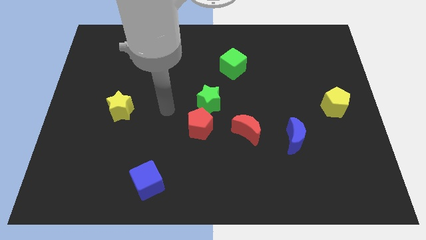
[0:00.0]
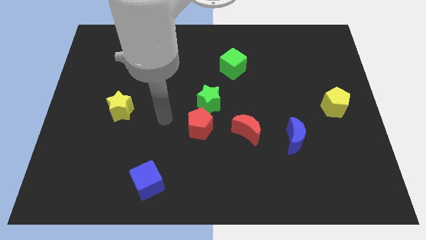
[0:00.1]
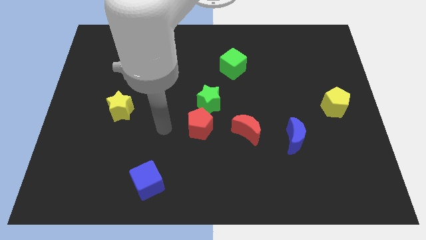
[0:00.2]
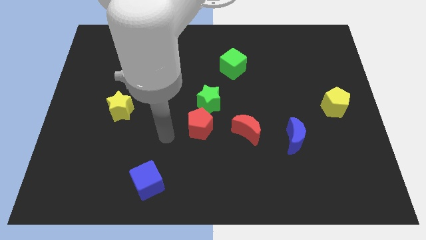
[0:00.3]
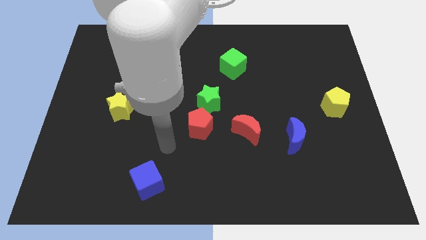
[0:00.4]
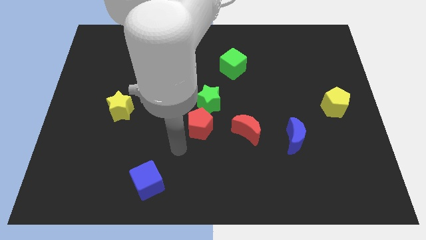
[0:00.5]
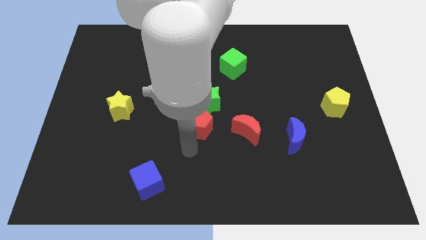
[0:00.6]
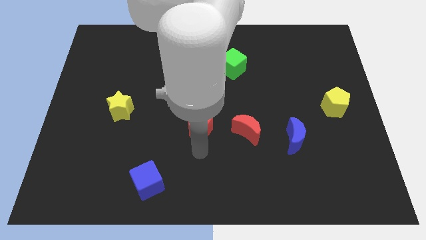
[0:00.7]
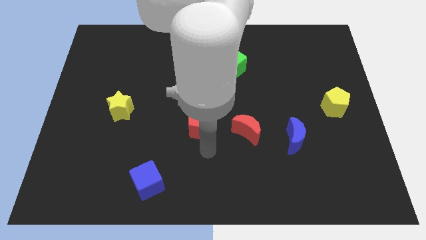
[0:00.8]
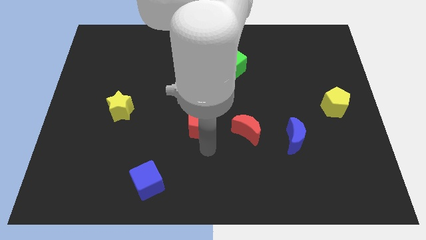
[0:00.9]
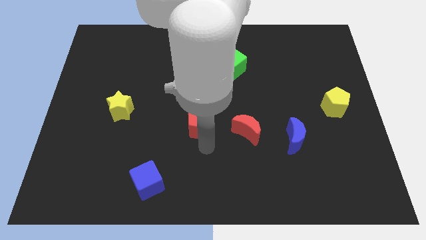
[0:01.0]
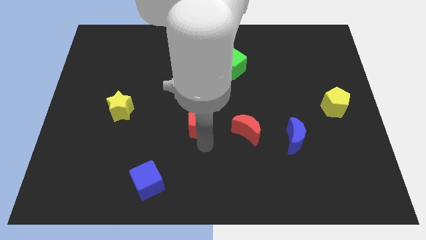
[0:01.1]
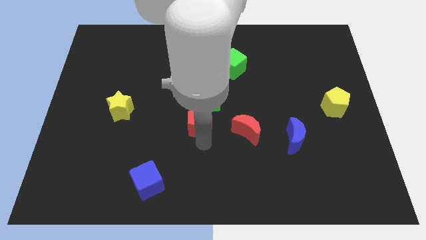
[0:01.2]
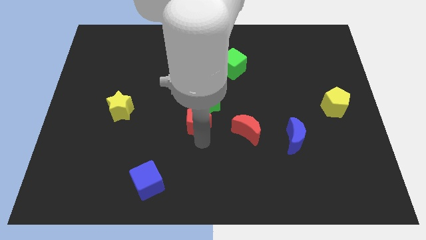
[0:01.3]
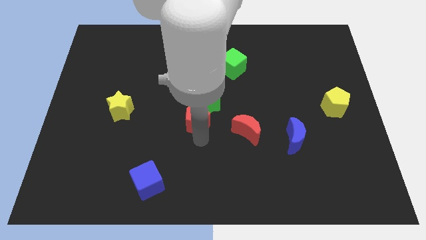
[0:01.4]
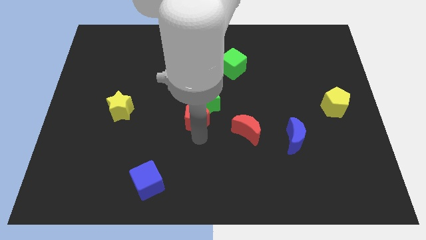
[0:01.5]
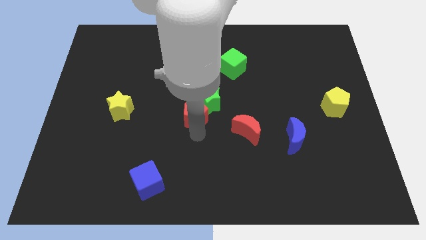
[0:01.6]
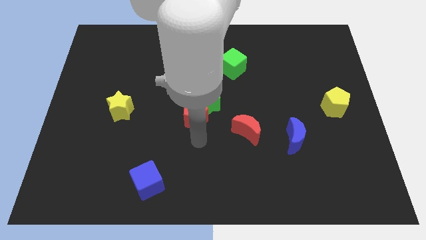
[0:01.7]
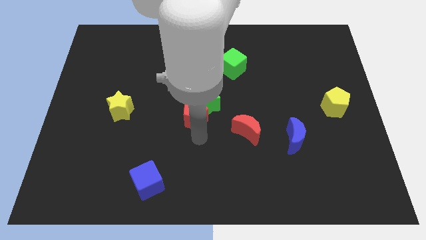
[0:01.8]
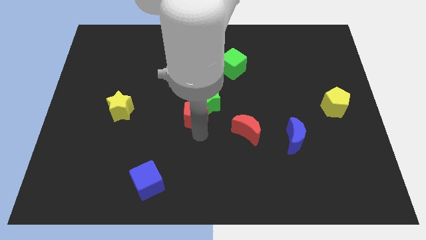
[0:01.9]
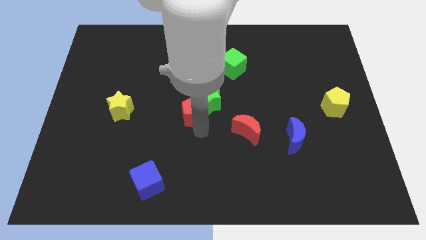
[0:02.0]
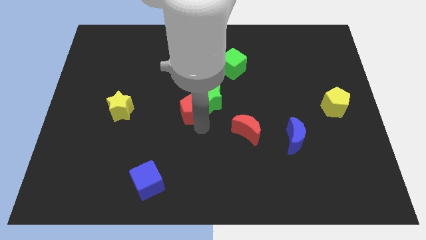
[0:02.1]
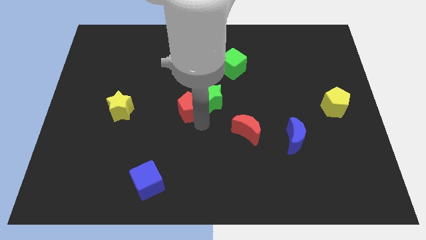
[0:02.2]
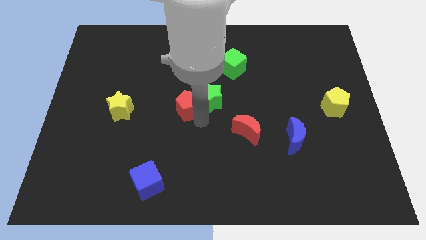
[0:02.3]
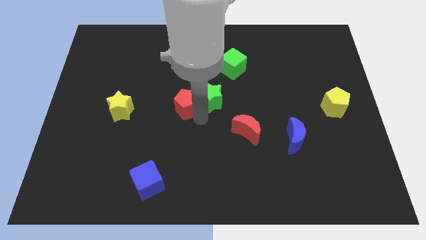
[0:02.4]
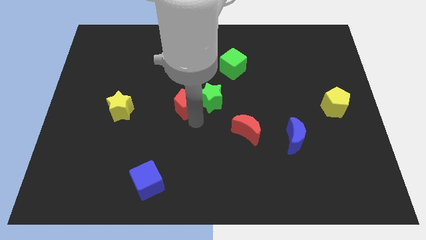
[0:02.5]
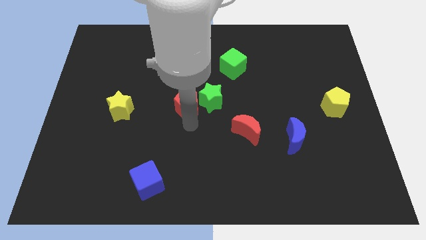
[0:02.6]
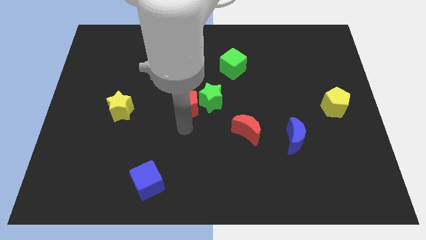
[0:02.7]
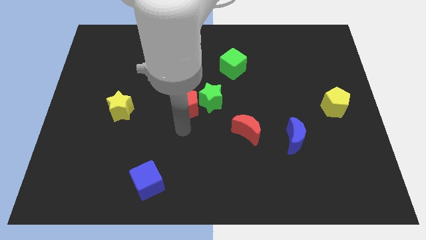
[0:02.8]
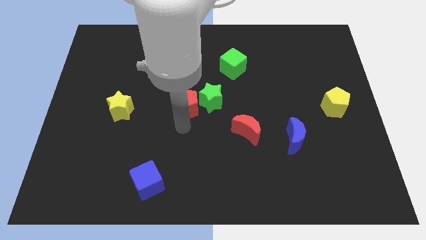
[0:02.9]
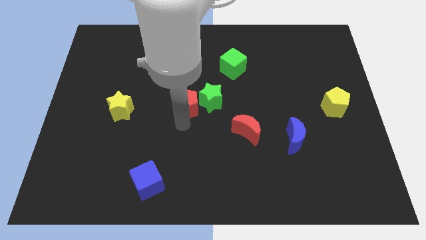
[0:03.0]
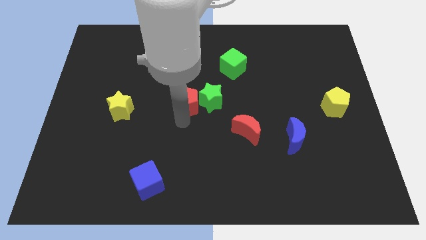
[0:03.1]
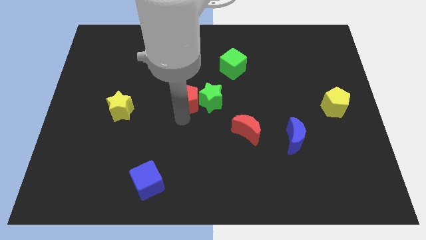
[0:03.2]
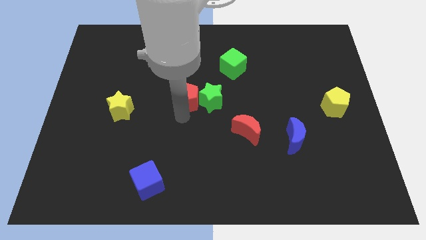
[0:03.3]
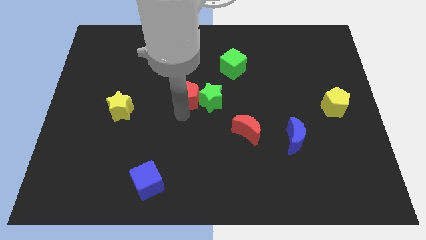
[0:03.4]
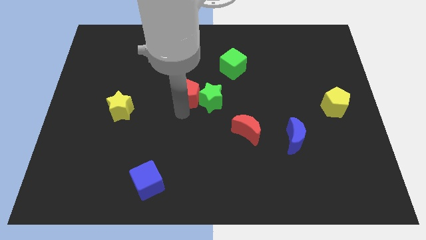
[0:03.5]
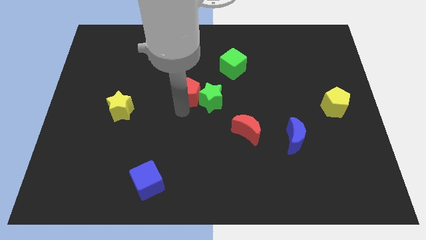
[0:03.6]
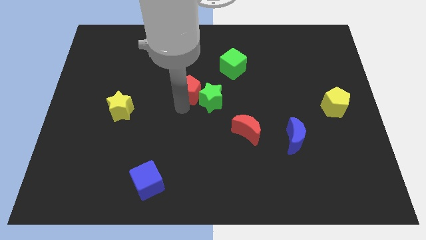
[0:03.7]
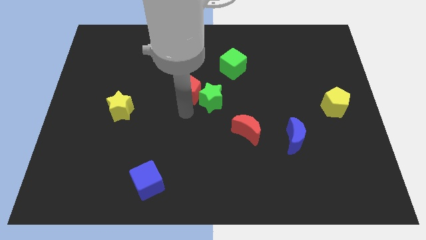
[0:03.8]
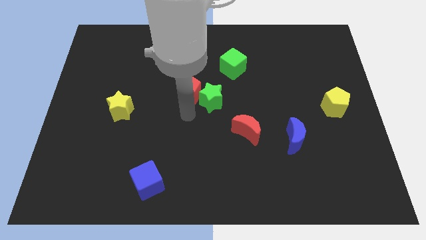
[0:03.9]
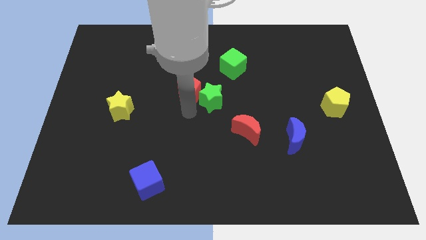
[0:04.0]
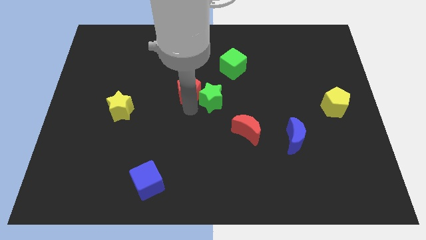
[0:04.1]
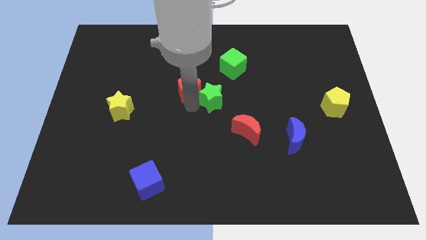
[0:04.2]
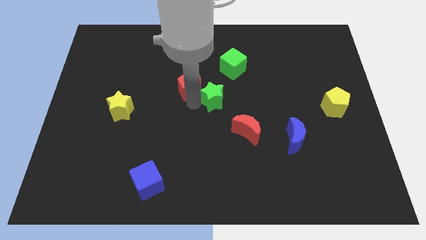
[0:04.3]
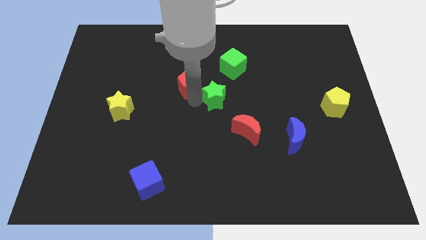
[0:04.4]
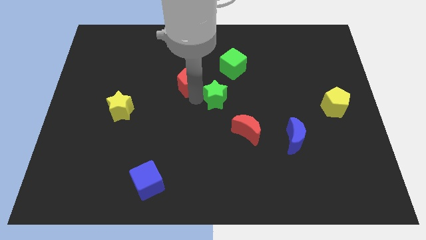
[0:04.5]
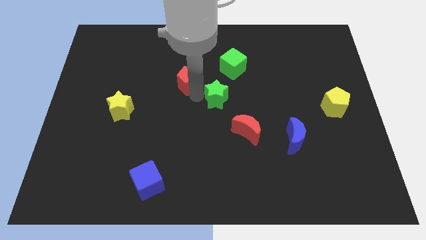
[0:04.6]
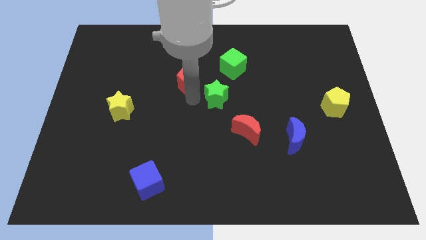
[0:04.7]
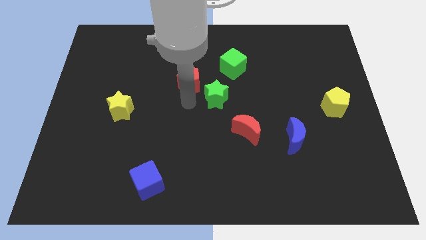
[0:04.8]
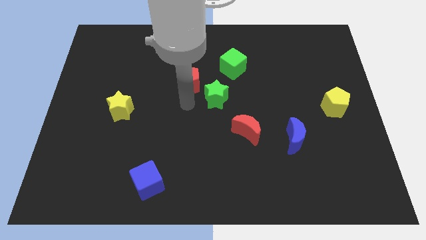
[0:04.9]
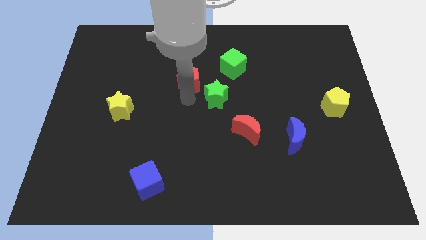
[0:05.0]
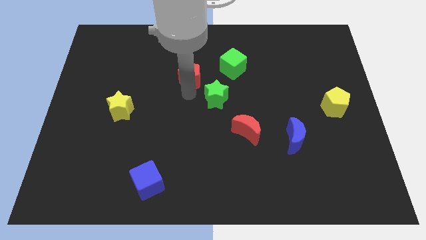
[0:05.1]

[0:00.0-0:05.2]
put the red pentagon to the left side of the green cube

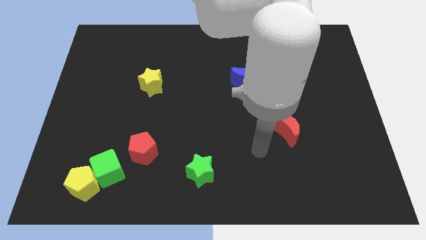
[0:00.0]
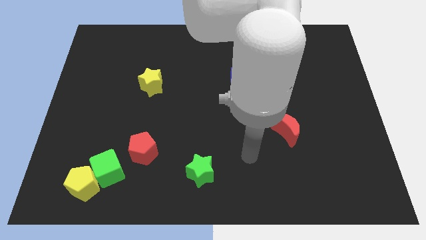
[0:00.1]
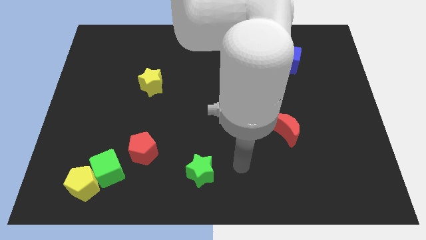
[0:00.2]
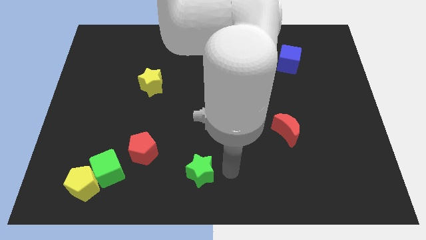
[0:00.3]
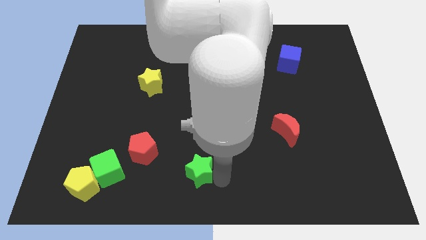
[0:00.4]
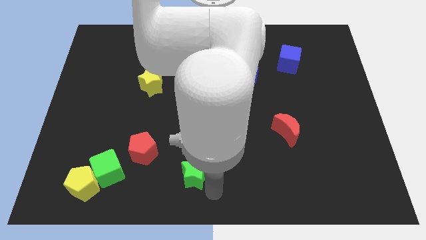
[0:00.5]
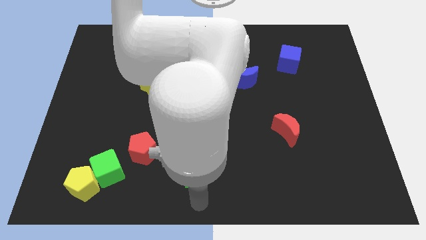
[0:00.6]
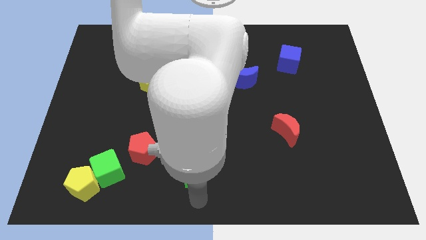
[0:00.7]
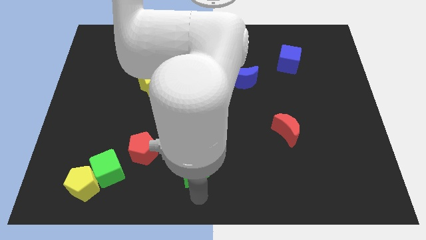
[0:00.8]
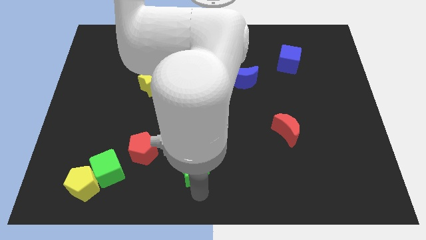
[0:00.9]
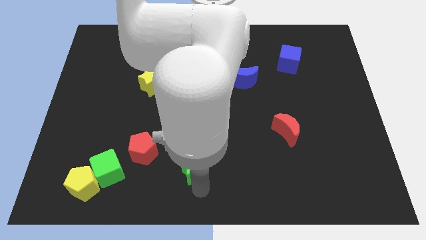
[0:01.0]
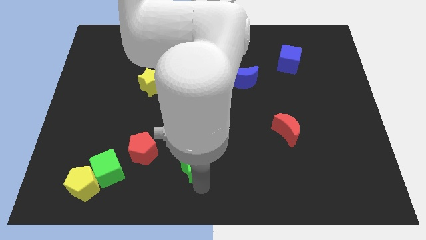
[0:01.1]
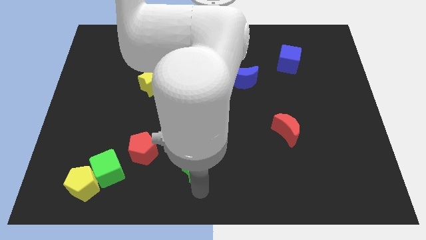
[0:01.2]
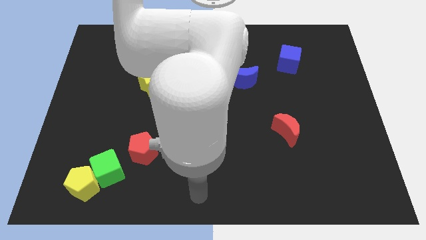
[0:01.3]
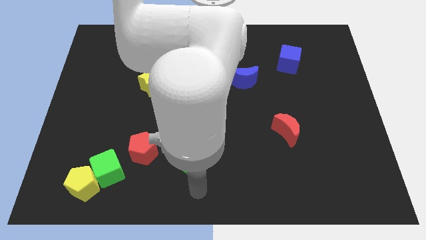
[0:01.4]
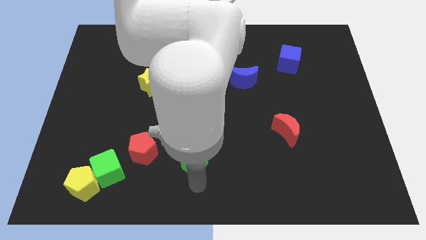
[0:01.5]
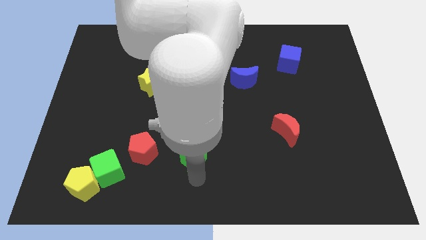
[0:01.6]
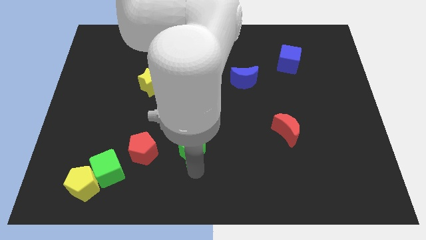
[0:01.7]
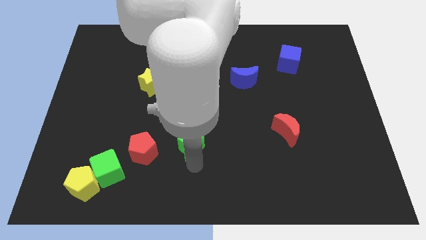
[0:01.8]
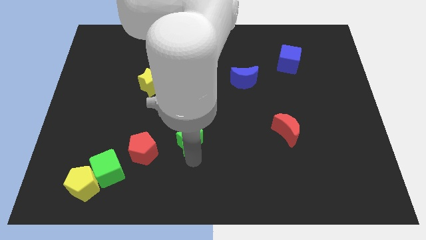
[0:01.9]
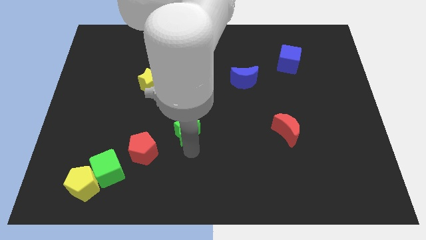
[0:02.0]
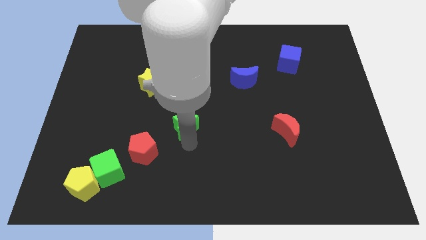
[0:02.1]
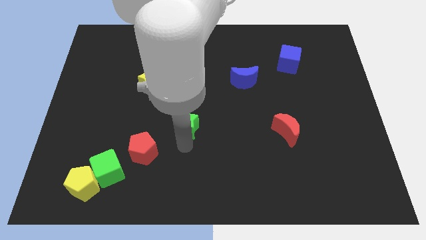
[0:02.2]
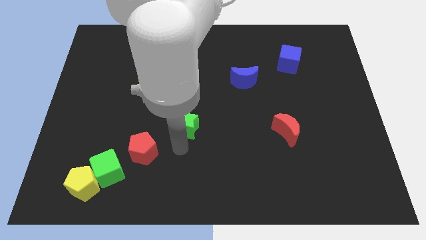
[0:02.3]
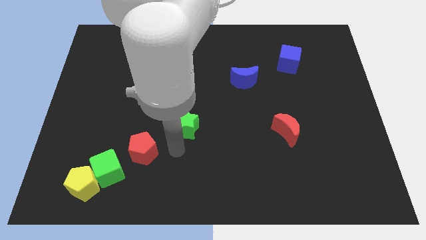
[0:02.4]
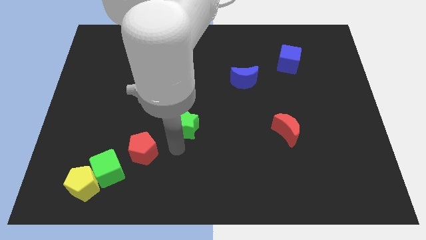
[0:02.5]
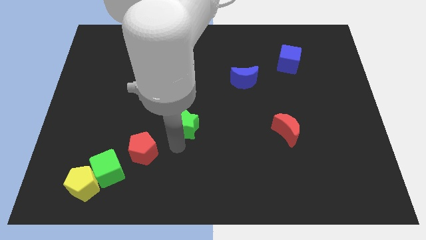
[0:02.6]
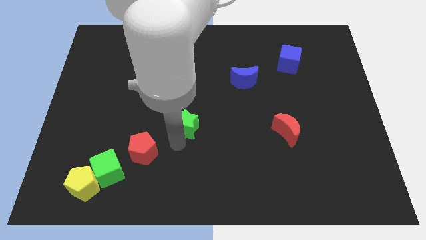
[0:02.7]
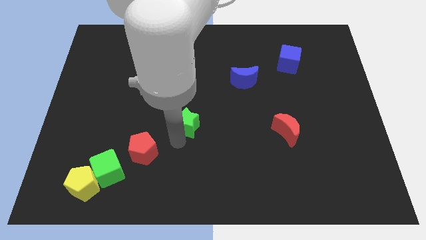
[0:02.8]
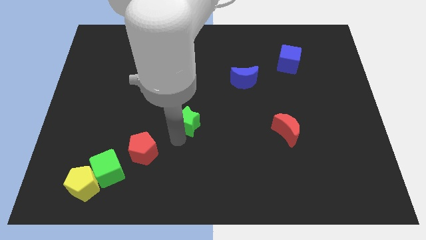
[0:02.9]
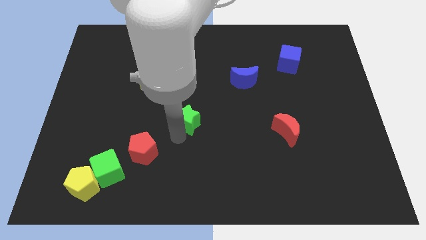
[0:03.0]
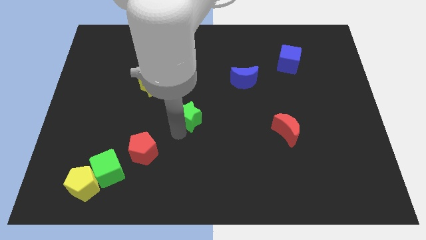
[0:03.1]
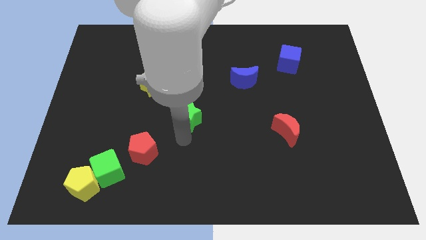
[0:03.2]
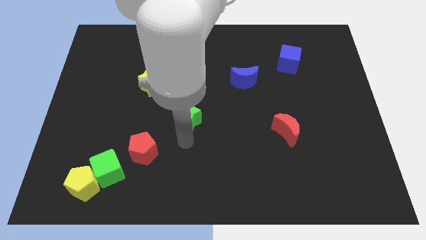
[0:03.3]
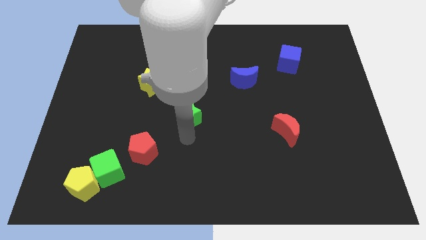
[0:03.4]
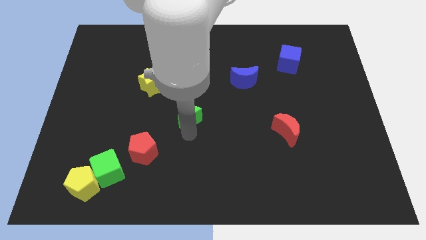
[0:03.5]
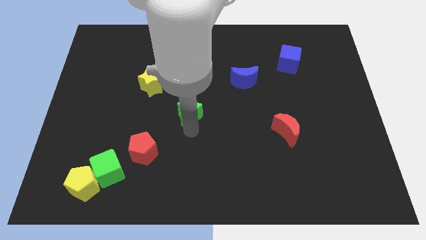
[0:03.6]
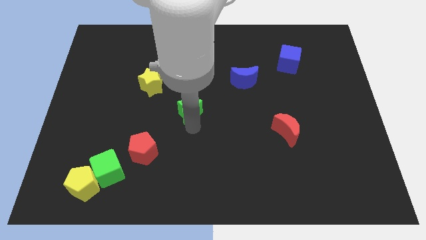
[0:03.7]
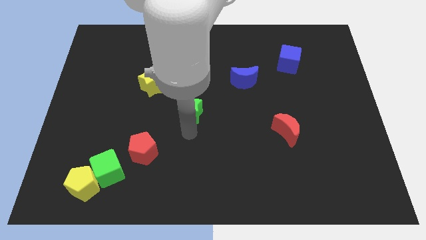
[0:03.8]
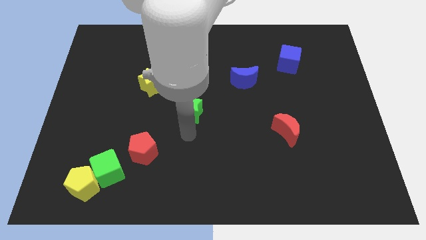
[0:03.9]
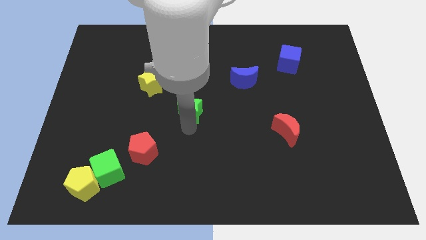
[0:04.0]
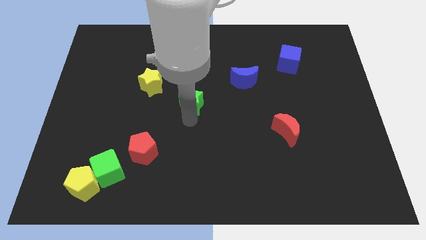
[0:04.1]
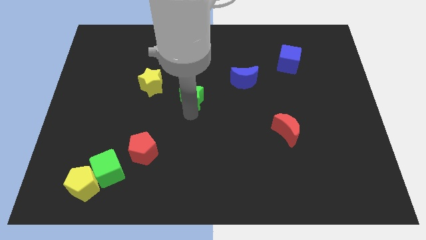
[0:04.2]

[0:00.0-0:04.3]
slide the green star to the right of the yellow star
